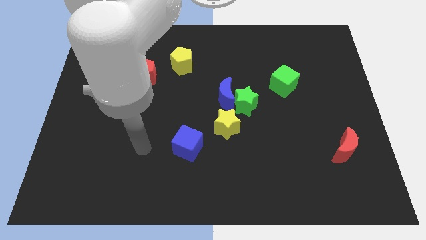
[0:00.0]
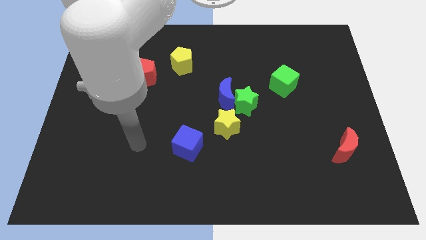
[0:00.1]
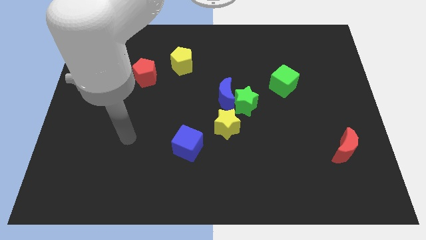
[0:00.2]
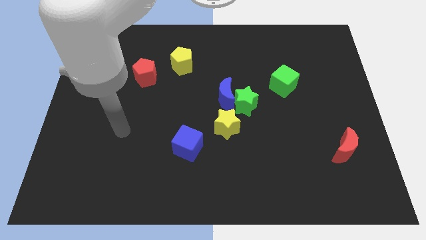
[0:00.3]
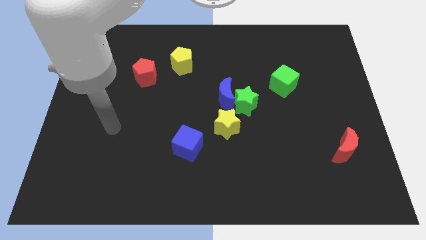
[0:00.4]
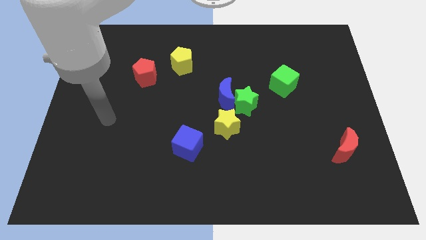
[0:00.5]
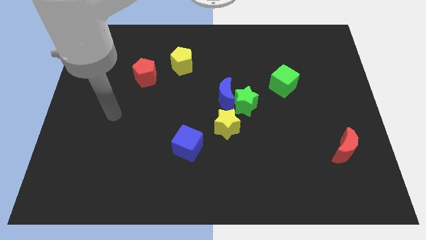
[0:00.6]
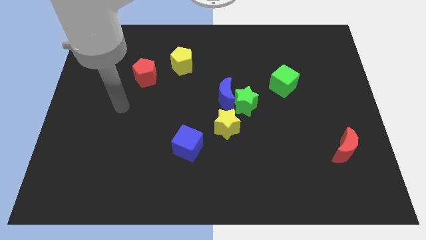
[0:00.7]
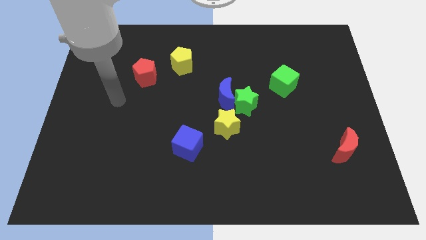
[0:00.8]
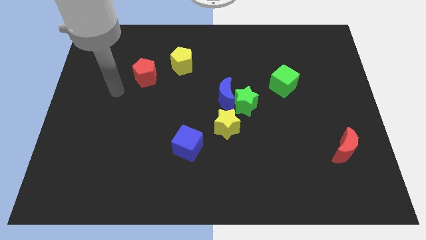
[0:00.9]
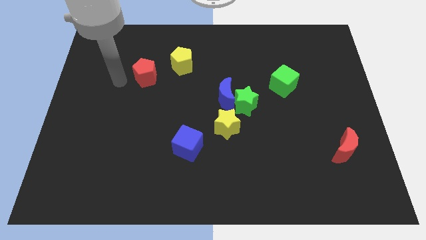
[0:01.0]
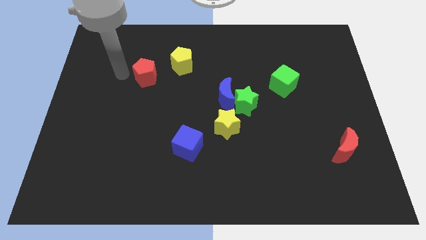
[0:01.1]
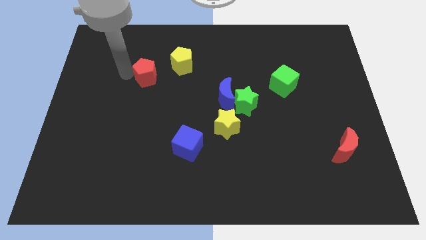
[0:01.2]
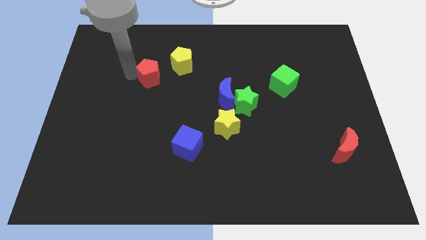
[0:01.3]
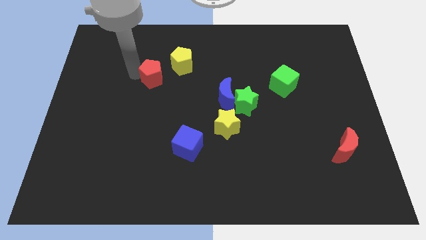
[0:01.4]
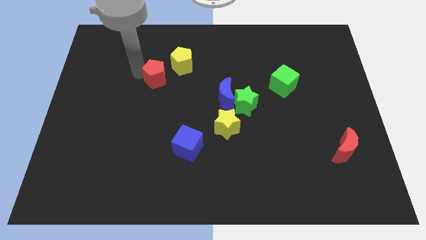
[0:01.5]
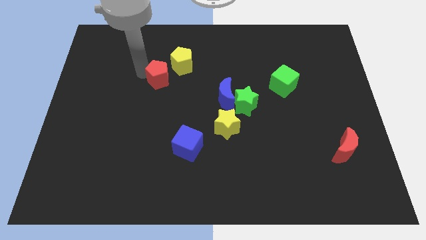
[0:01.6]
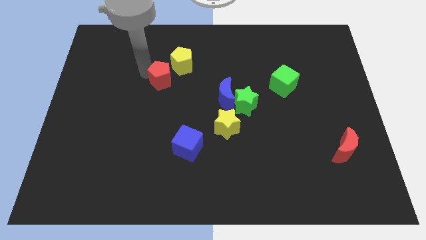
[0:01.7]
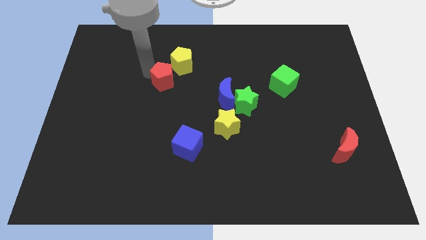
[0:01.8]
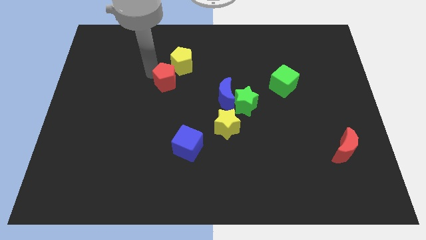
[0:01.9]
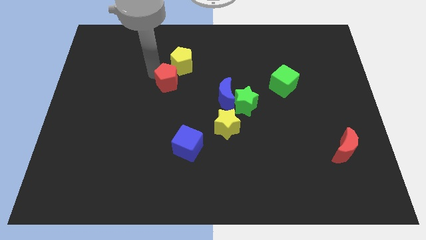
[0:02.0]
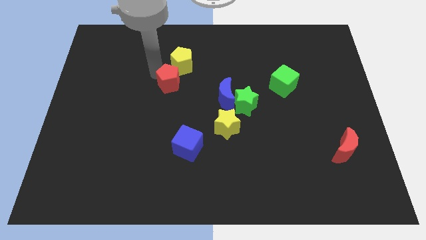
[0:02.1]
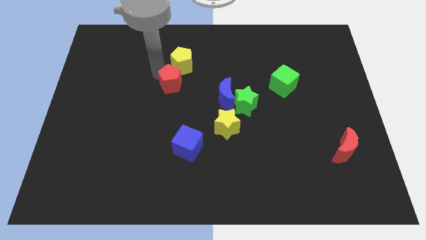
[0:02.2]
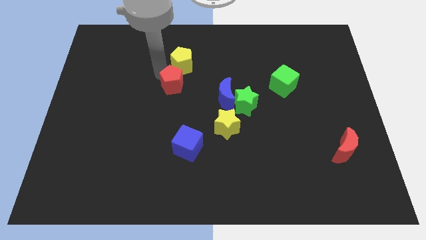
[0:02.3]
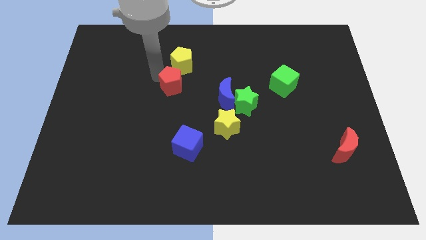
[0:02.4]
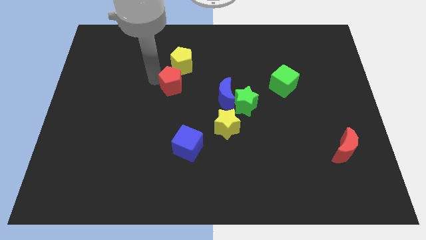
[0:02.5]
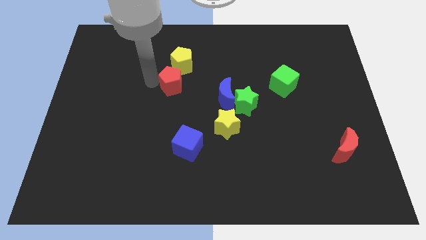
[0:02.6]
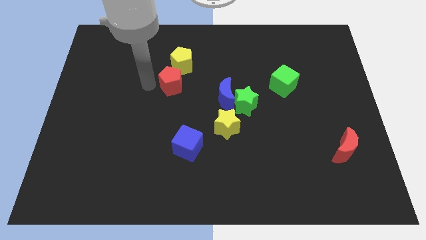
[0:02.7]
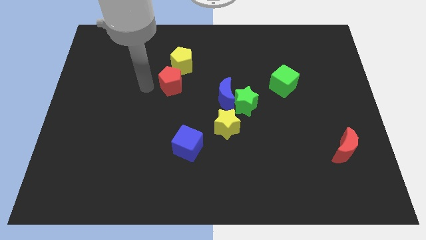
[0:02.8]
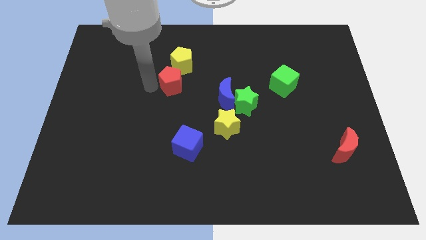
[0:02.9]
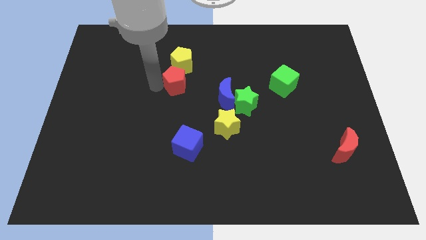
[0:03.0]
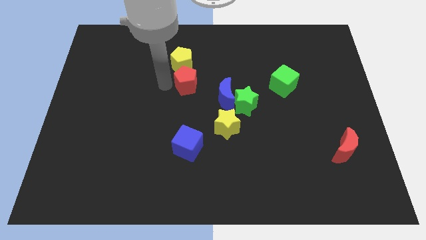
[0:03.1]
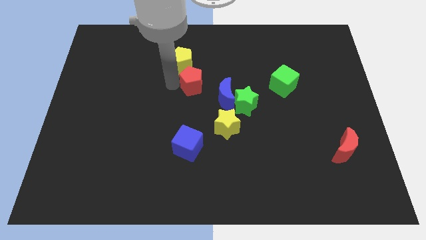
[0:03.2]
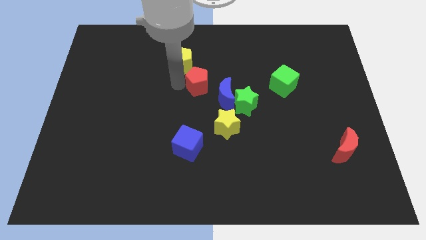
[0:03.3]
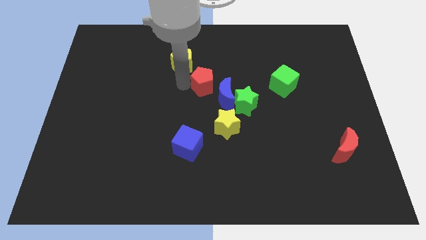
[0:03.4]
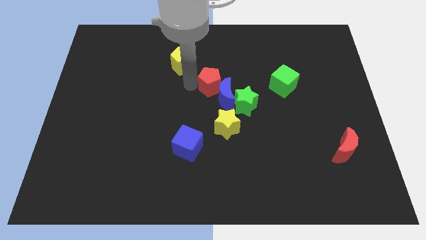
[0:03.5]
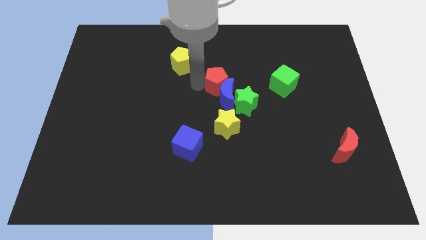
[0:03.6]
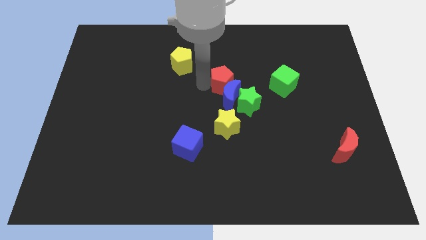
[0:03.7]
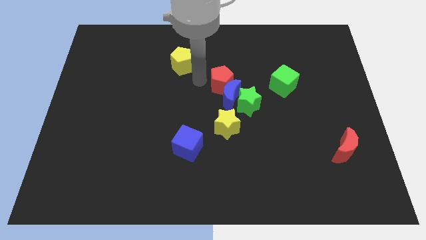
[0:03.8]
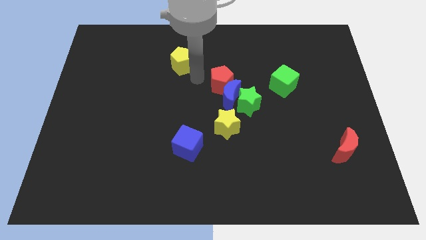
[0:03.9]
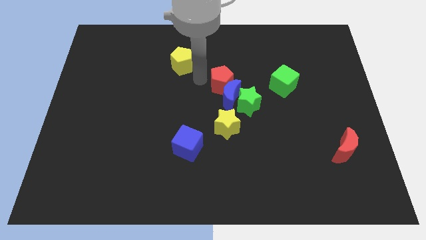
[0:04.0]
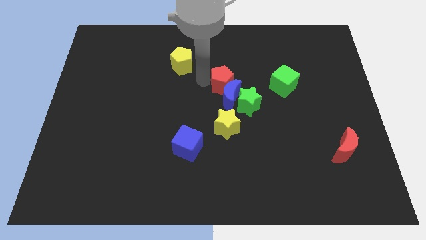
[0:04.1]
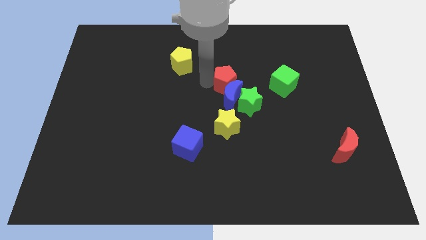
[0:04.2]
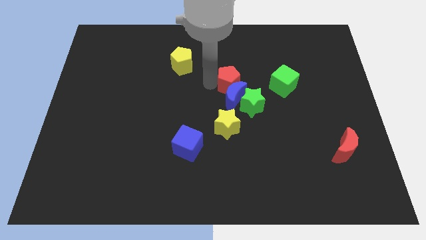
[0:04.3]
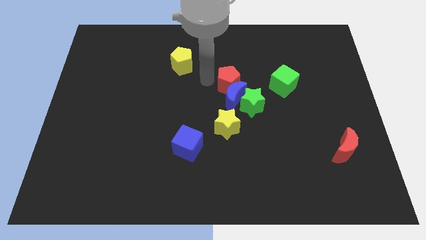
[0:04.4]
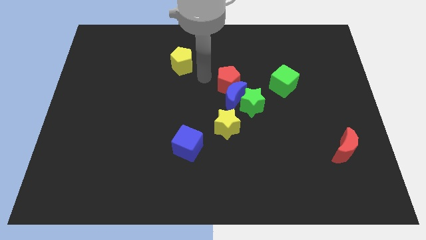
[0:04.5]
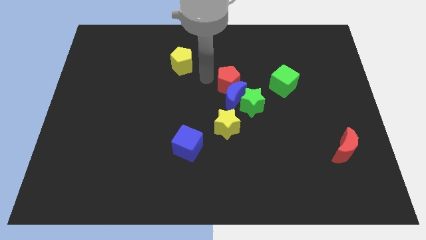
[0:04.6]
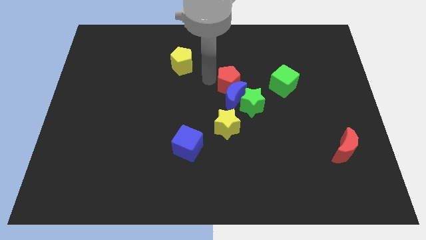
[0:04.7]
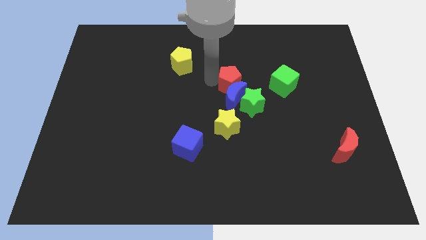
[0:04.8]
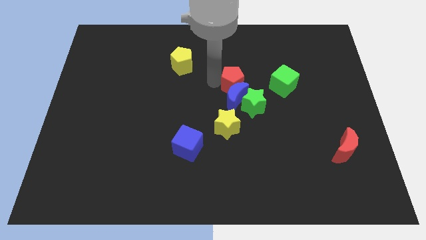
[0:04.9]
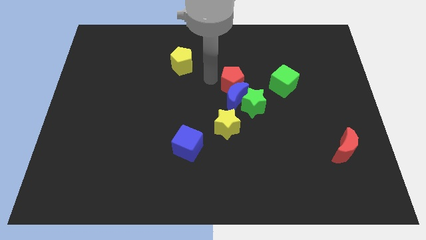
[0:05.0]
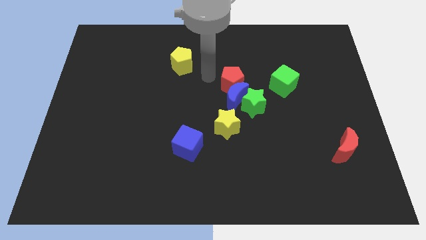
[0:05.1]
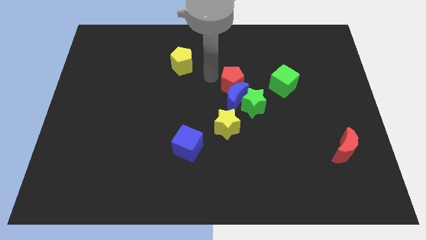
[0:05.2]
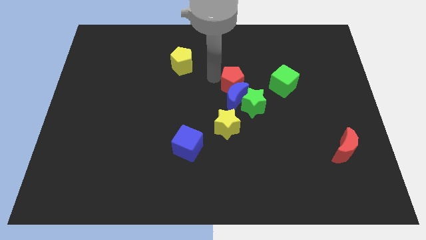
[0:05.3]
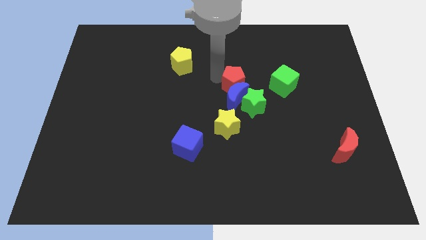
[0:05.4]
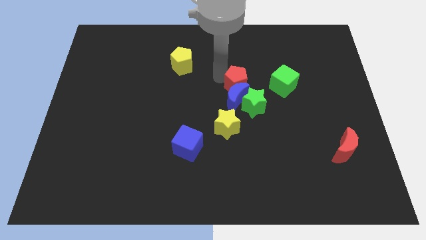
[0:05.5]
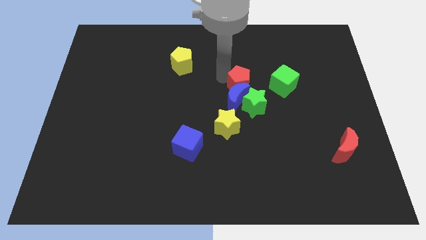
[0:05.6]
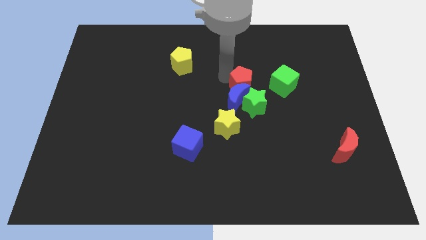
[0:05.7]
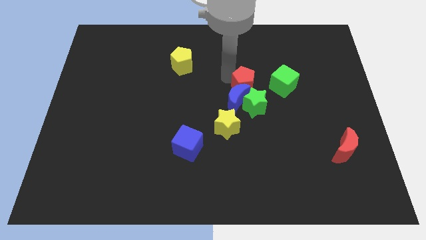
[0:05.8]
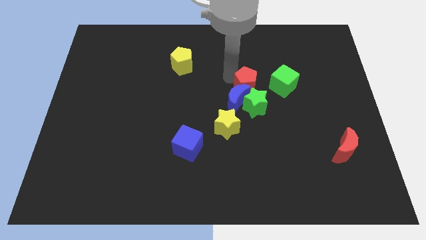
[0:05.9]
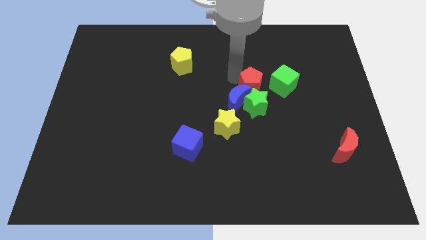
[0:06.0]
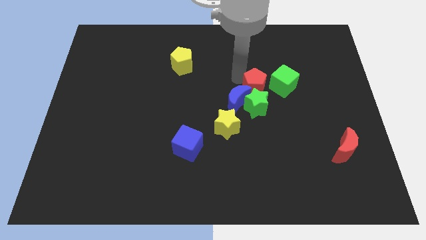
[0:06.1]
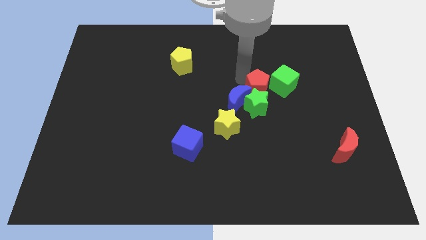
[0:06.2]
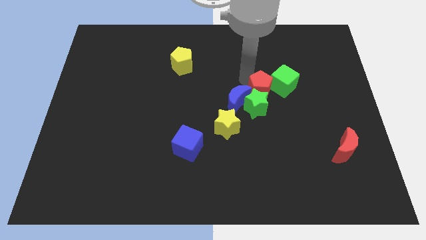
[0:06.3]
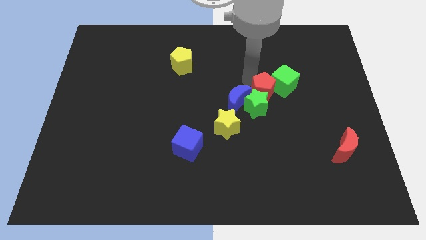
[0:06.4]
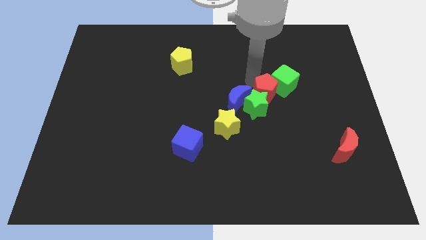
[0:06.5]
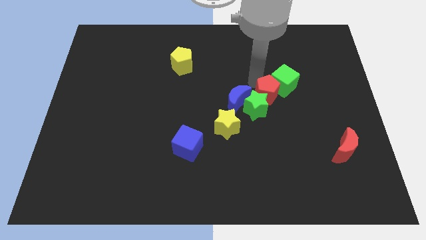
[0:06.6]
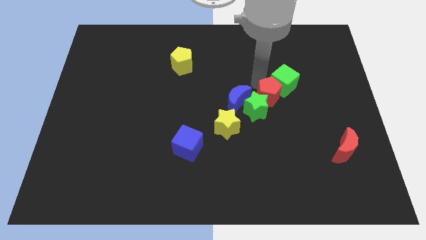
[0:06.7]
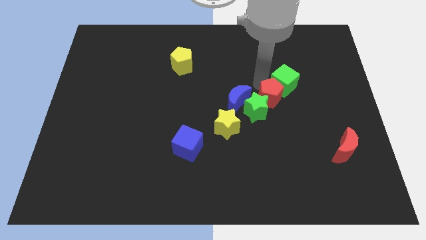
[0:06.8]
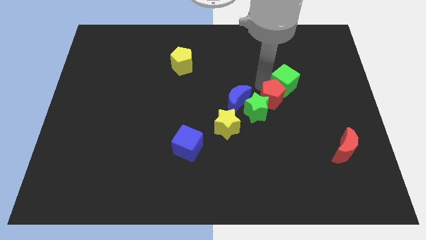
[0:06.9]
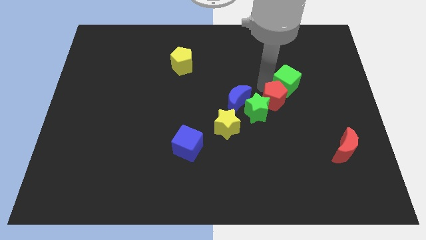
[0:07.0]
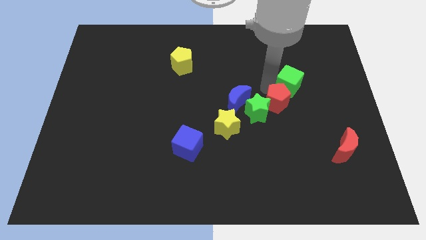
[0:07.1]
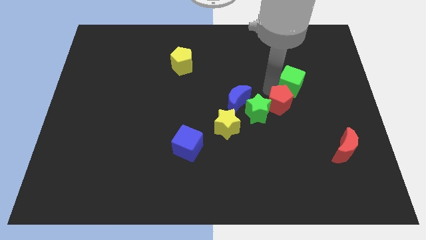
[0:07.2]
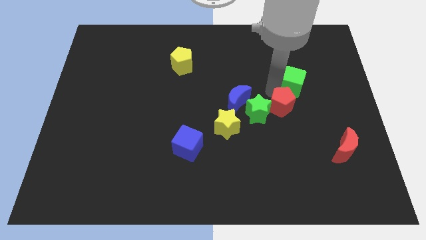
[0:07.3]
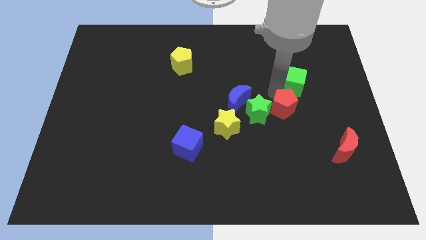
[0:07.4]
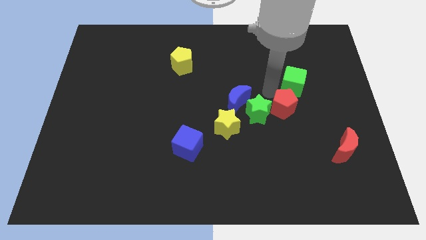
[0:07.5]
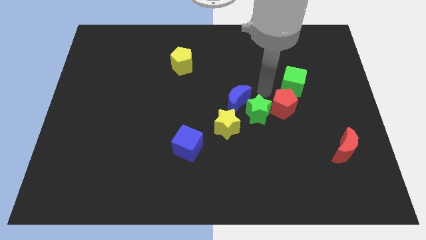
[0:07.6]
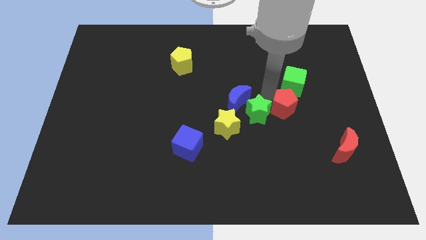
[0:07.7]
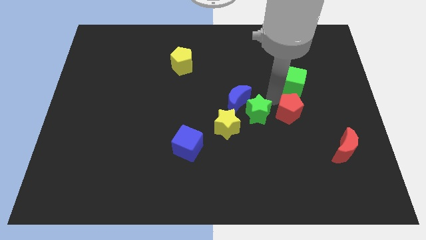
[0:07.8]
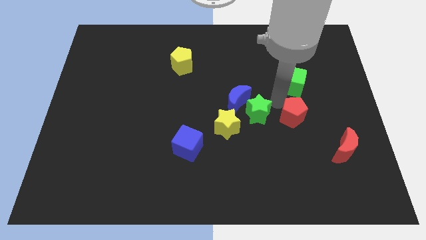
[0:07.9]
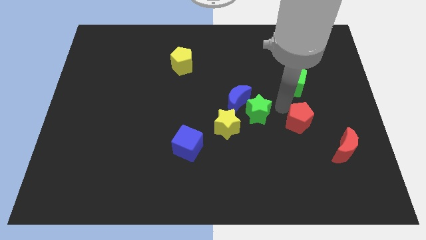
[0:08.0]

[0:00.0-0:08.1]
put the red pentagon diagonally up and to the left of the red moon

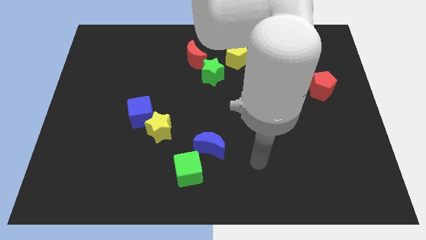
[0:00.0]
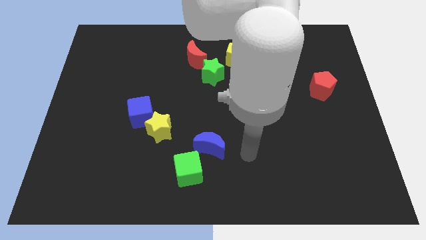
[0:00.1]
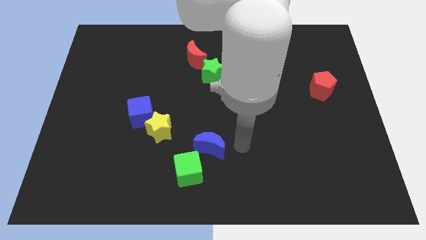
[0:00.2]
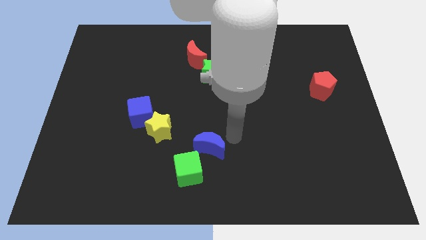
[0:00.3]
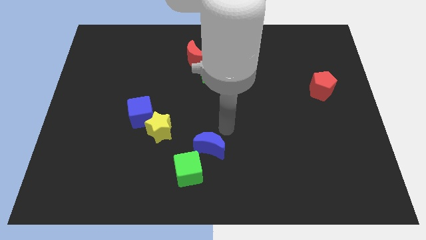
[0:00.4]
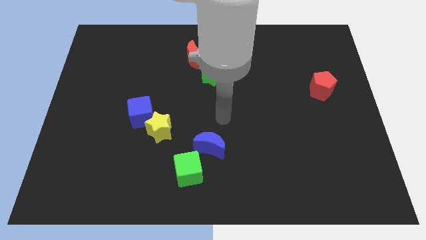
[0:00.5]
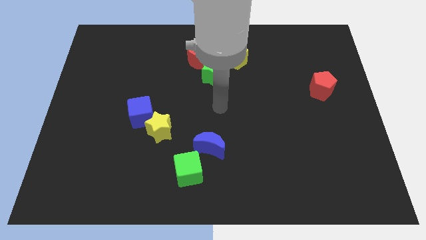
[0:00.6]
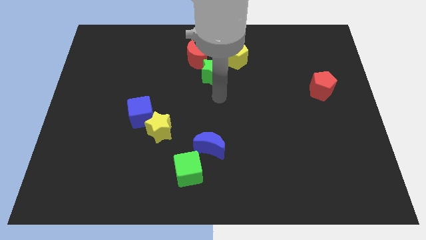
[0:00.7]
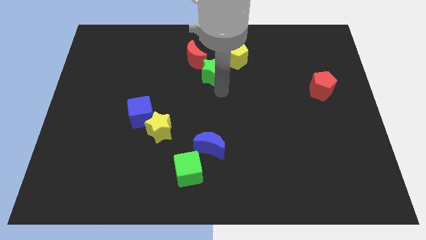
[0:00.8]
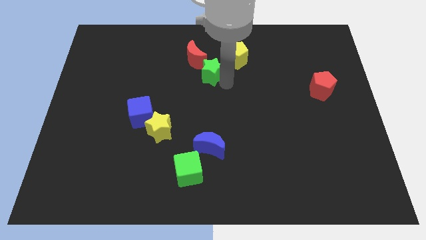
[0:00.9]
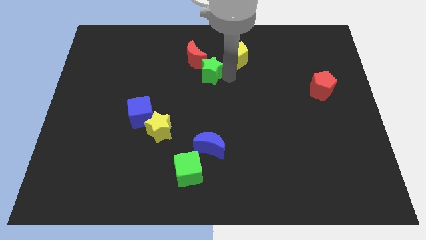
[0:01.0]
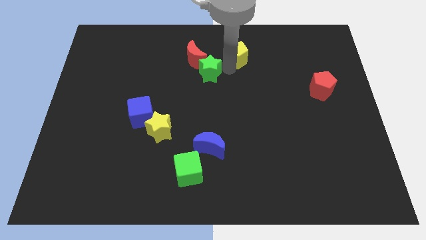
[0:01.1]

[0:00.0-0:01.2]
push the yellow pentagon to the right of the green star
